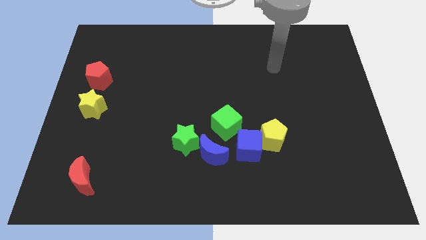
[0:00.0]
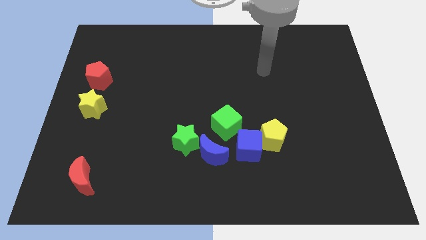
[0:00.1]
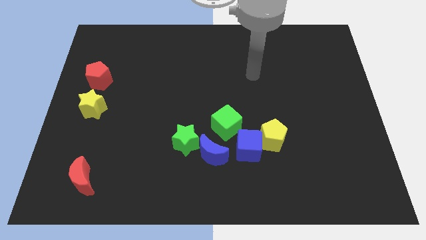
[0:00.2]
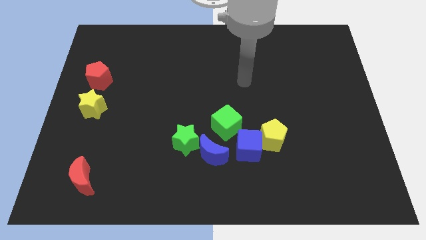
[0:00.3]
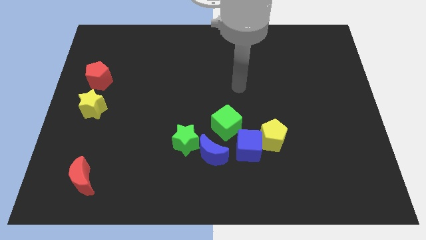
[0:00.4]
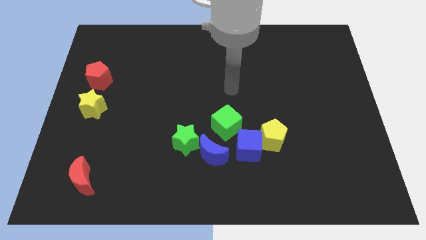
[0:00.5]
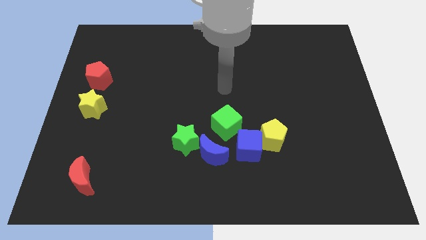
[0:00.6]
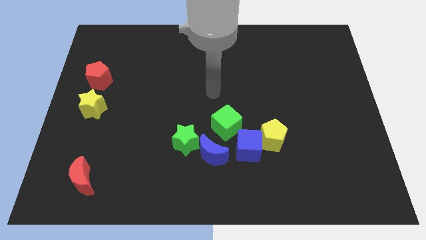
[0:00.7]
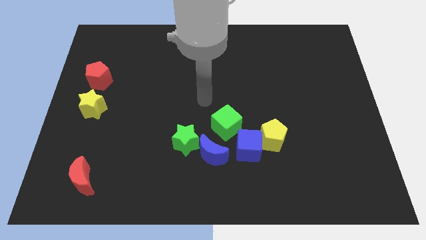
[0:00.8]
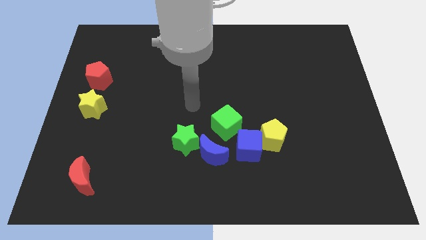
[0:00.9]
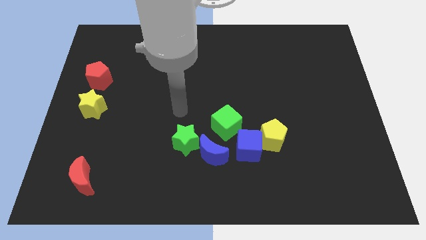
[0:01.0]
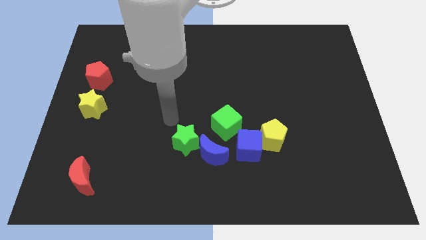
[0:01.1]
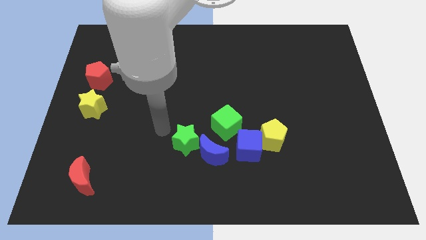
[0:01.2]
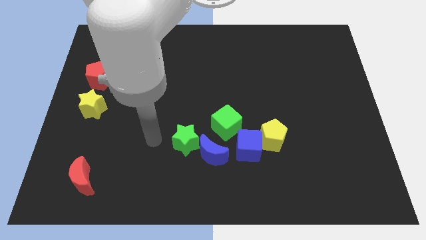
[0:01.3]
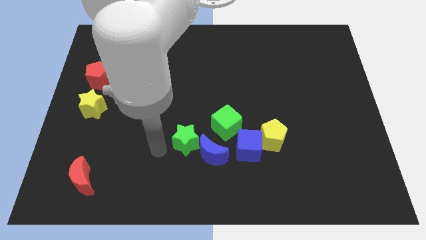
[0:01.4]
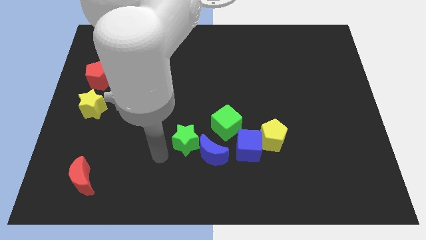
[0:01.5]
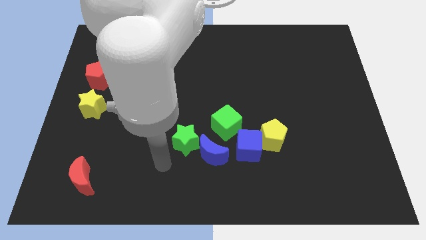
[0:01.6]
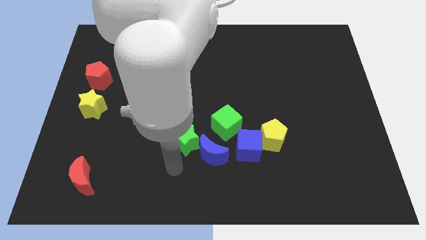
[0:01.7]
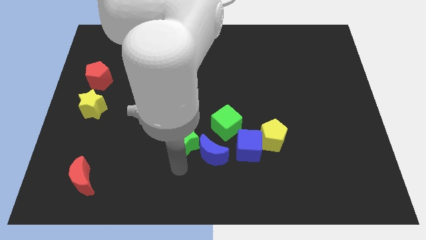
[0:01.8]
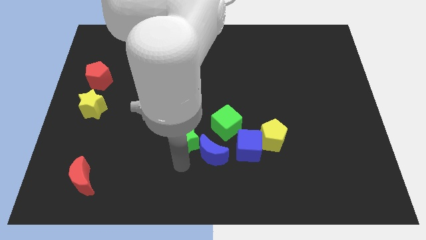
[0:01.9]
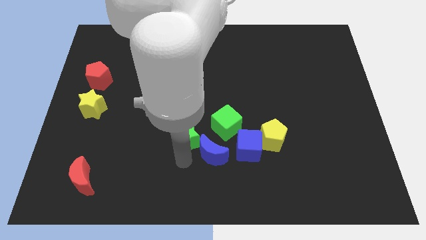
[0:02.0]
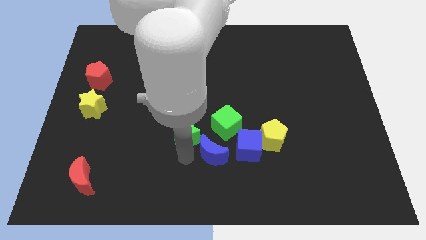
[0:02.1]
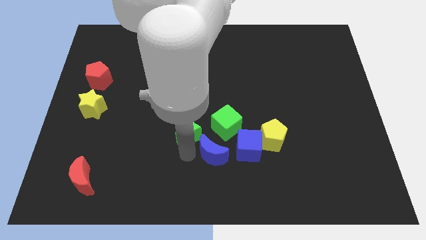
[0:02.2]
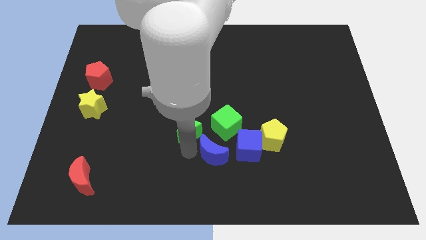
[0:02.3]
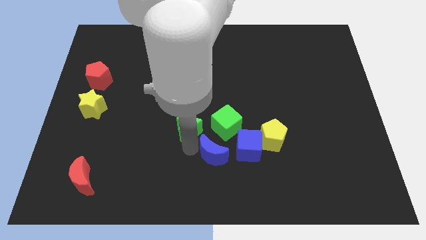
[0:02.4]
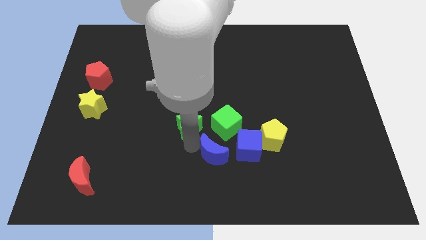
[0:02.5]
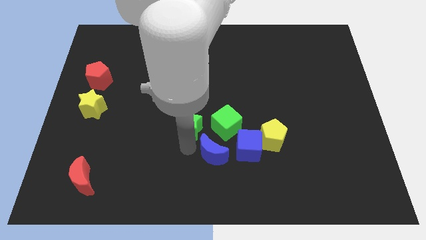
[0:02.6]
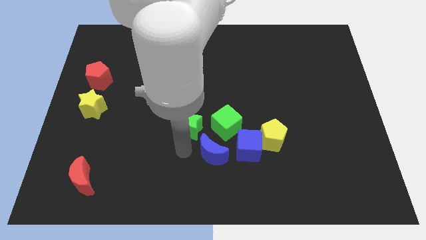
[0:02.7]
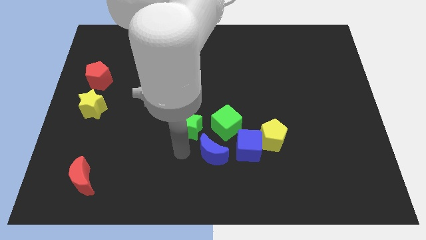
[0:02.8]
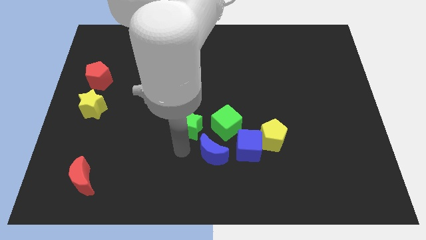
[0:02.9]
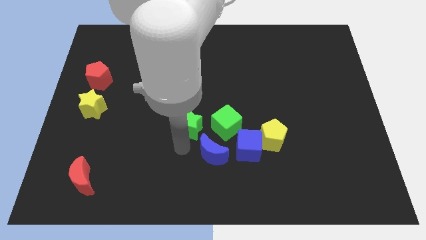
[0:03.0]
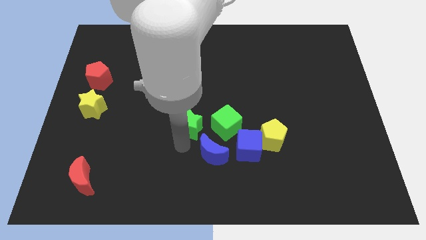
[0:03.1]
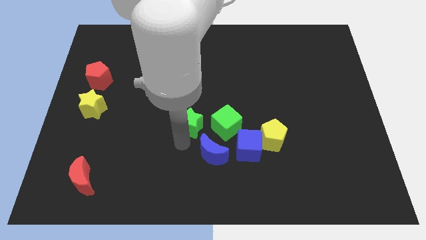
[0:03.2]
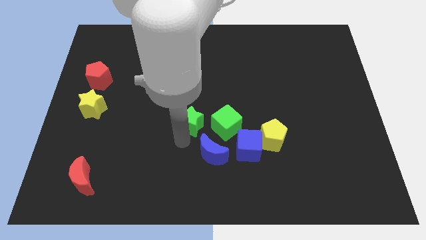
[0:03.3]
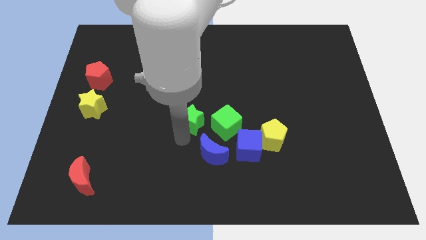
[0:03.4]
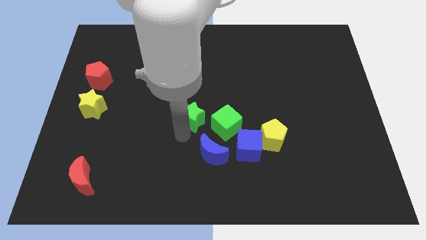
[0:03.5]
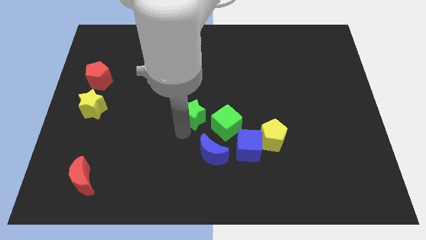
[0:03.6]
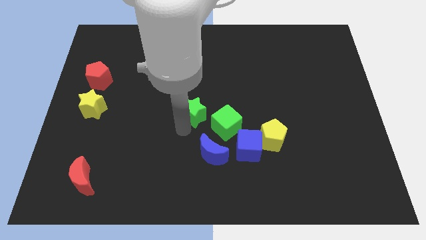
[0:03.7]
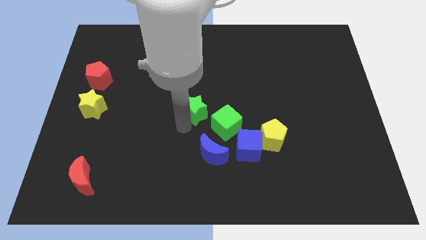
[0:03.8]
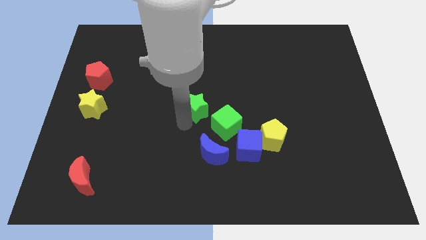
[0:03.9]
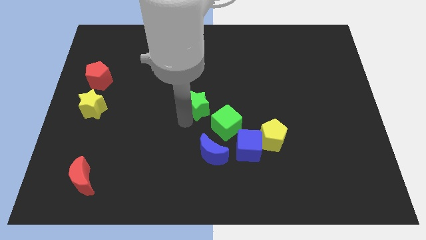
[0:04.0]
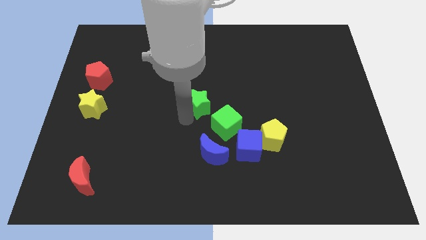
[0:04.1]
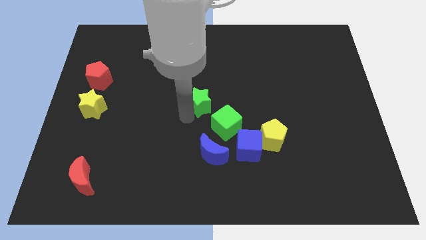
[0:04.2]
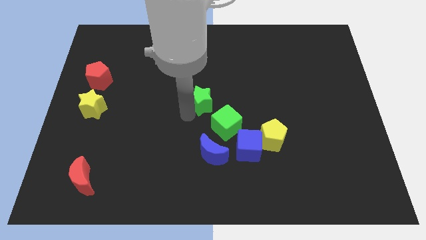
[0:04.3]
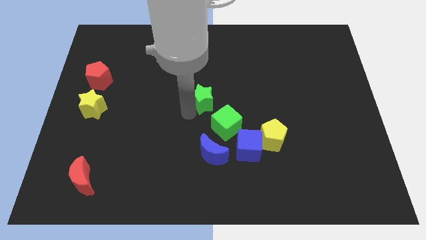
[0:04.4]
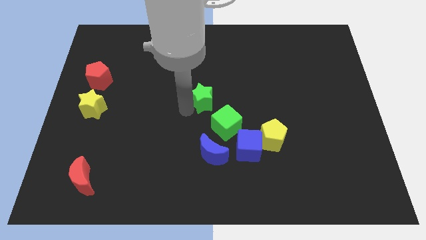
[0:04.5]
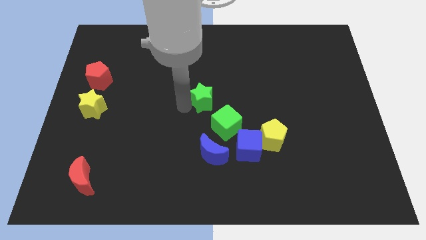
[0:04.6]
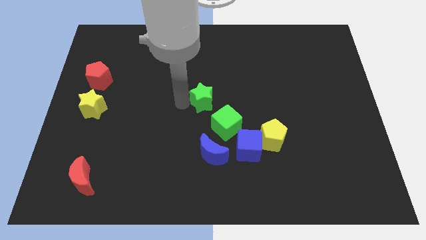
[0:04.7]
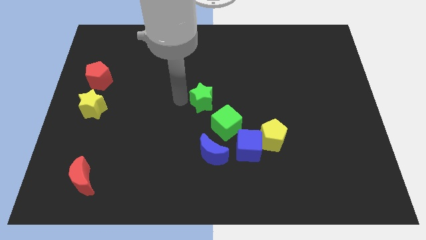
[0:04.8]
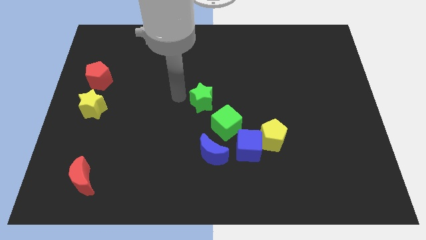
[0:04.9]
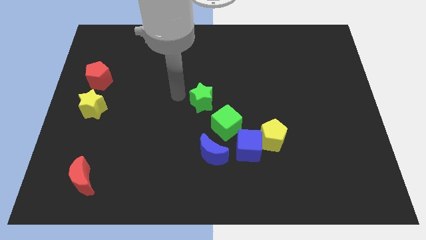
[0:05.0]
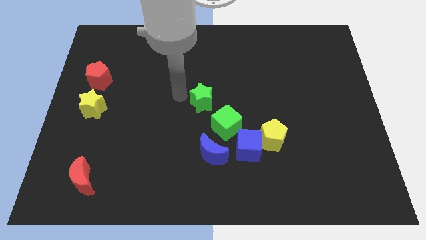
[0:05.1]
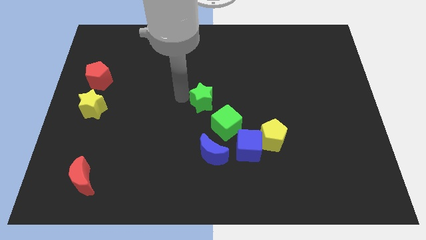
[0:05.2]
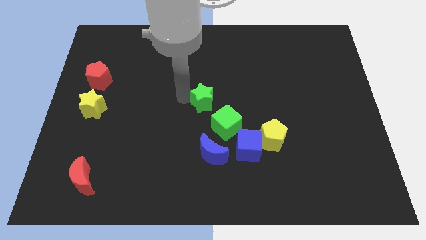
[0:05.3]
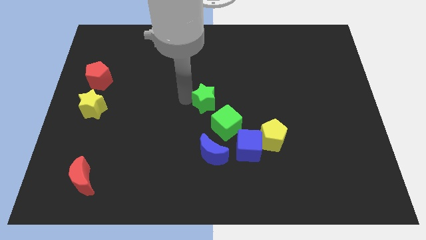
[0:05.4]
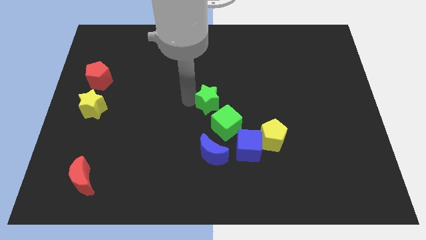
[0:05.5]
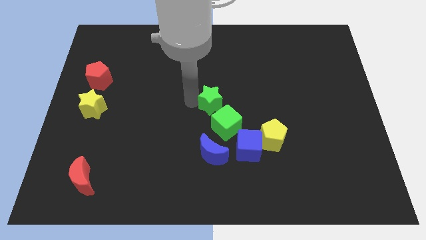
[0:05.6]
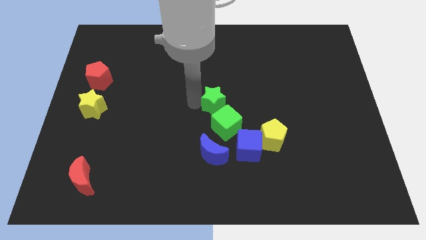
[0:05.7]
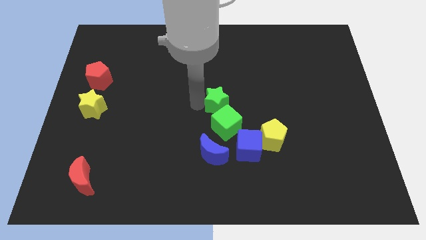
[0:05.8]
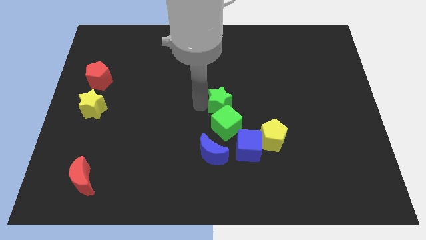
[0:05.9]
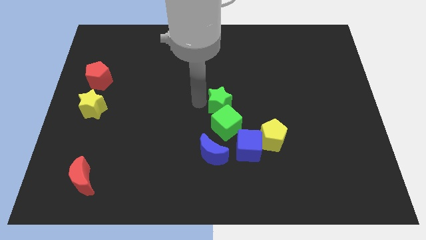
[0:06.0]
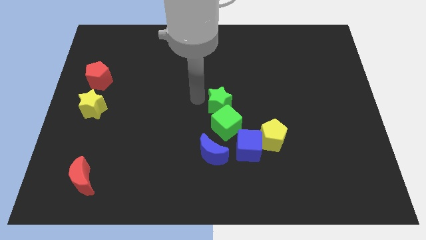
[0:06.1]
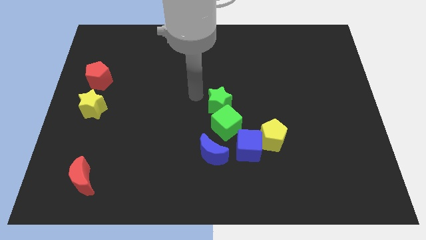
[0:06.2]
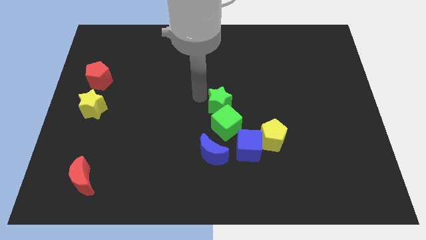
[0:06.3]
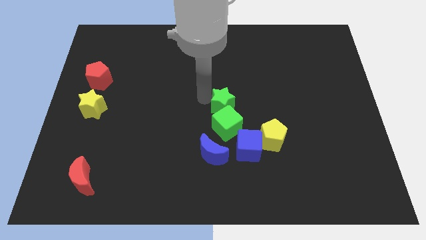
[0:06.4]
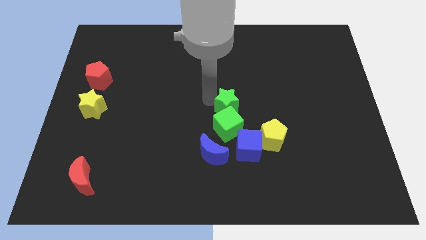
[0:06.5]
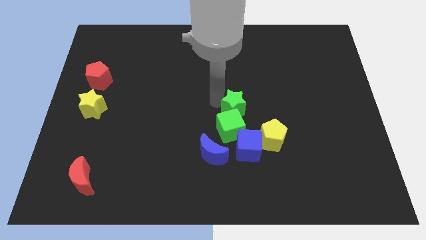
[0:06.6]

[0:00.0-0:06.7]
put the green star to the top left side of the yellow pentagon
